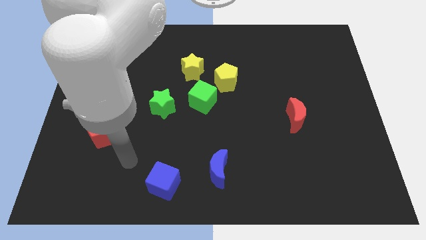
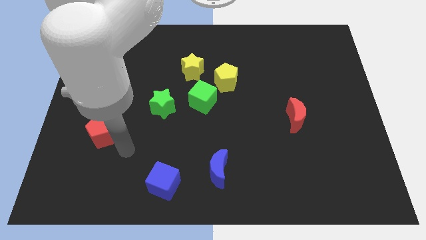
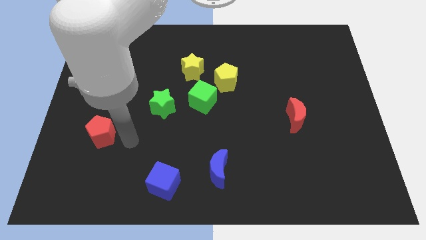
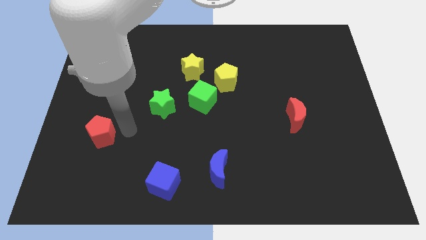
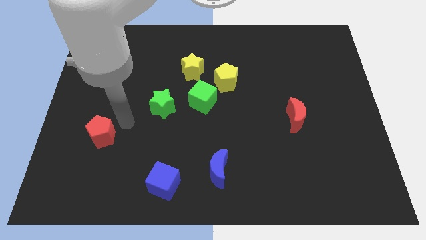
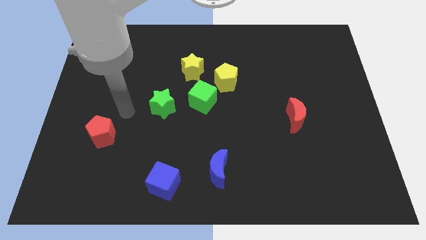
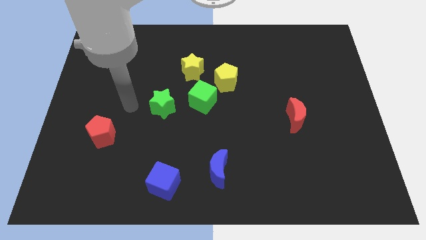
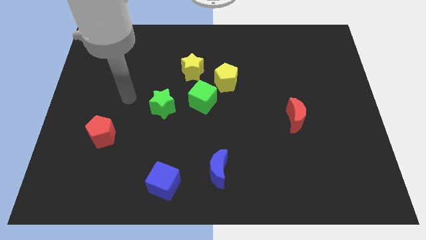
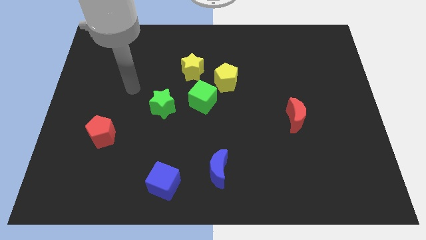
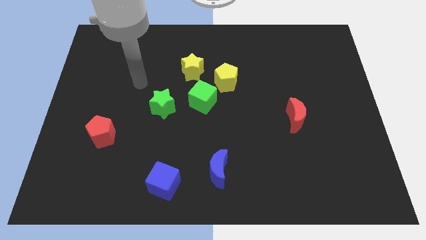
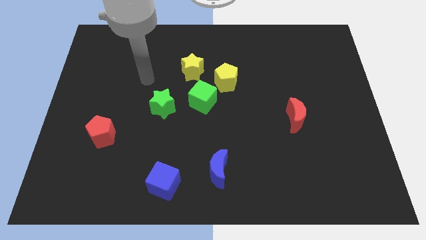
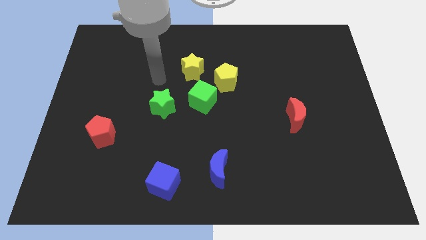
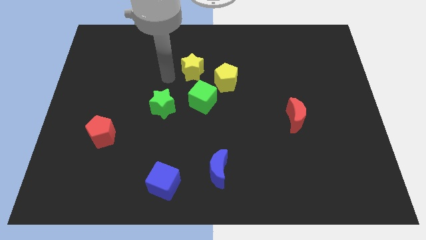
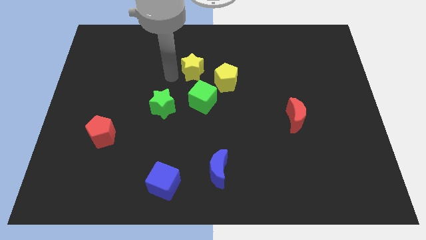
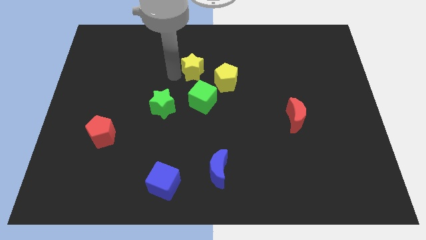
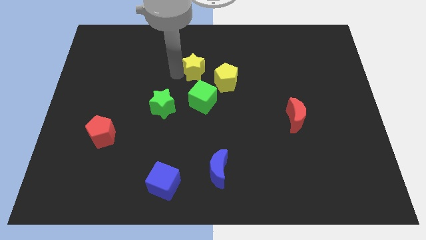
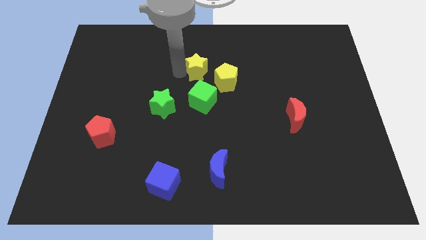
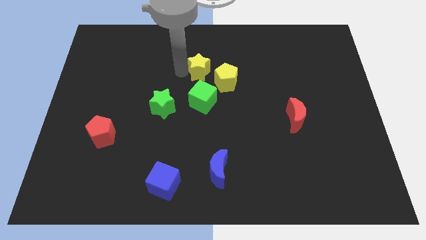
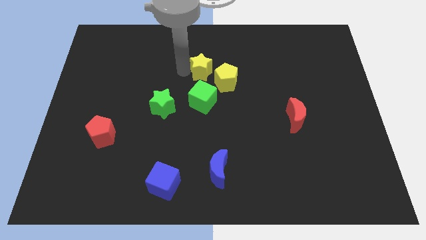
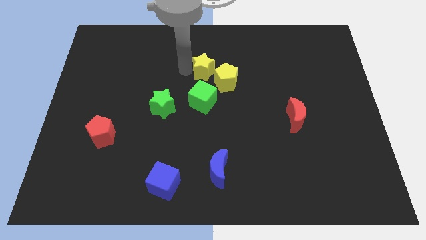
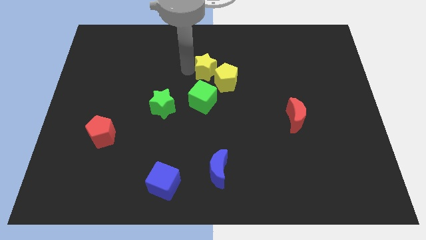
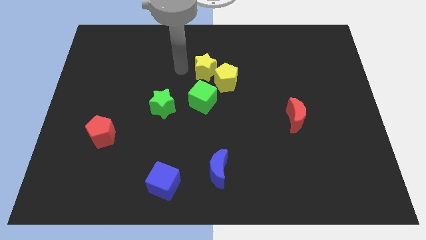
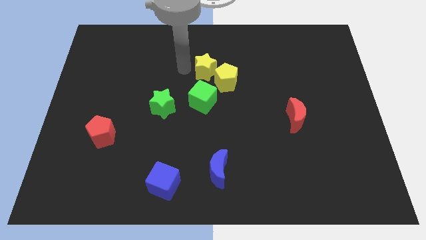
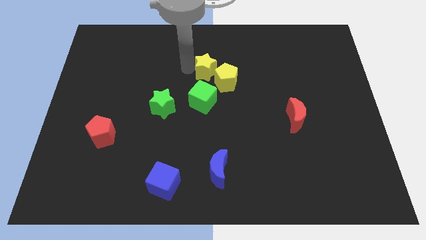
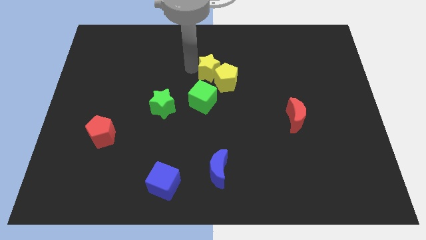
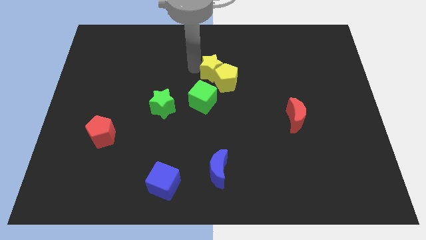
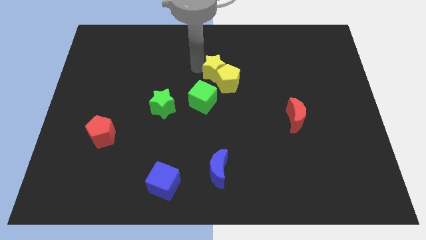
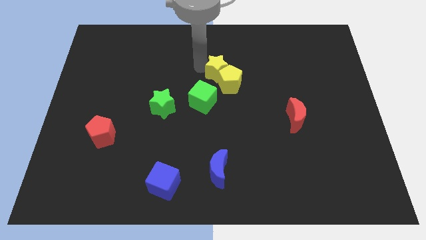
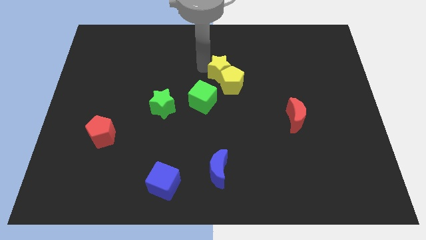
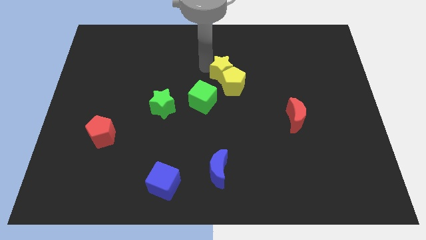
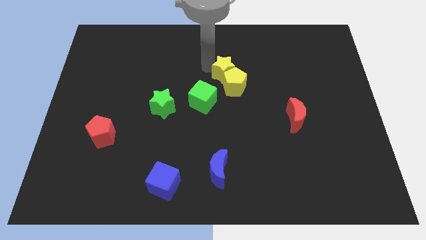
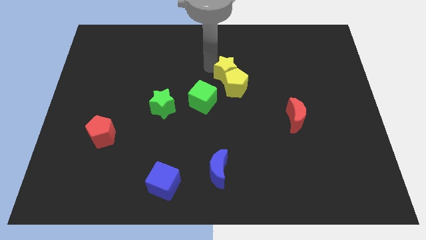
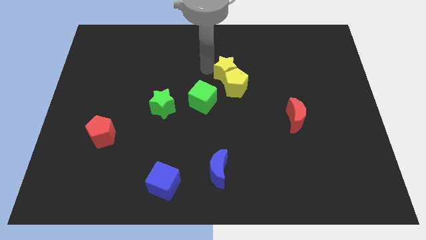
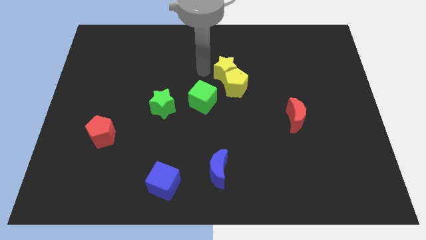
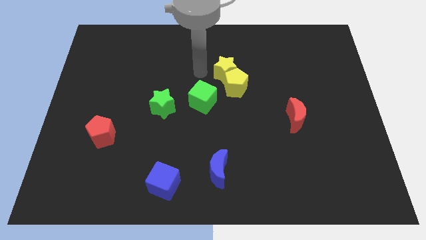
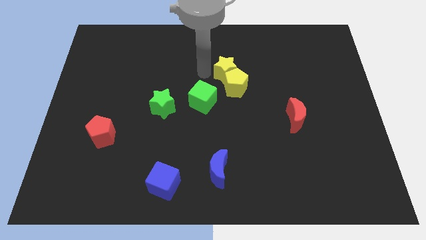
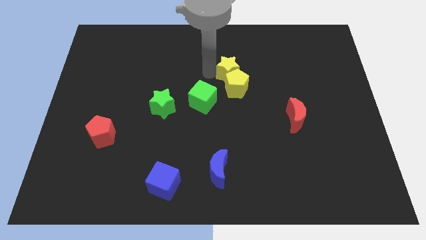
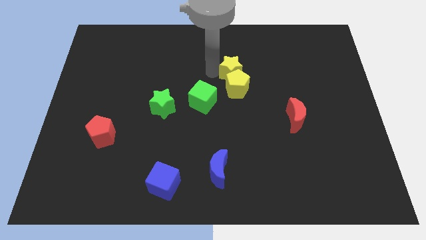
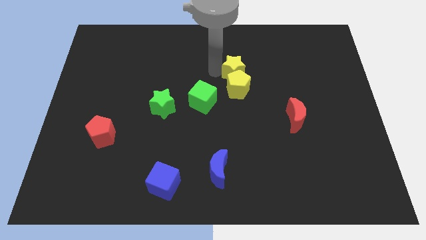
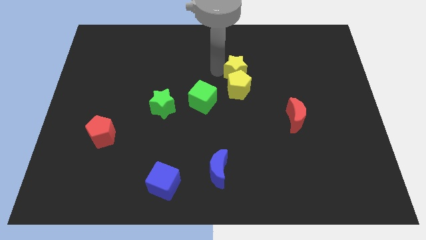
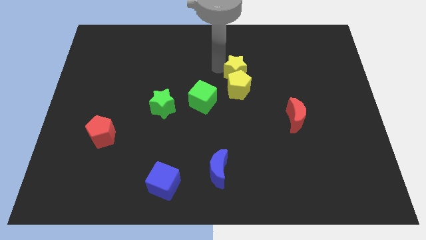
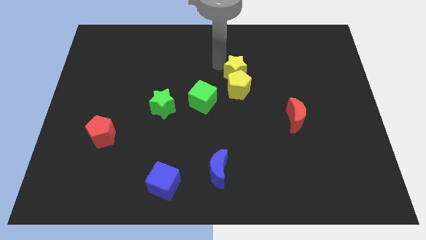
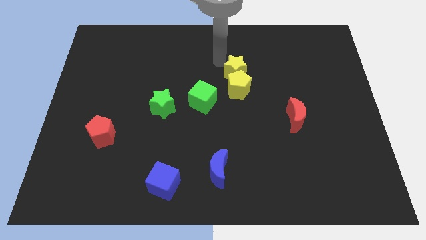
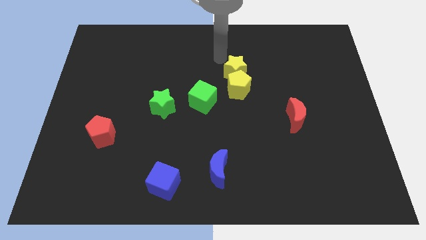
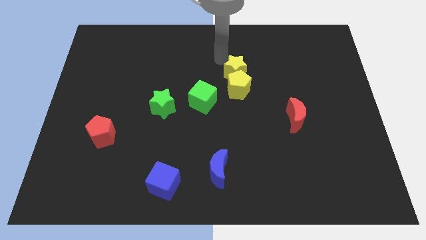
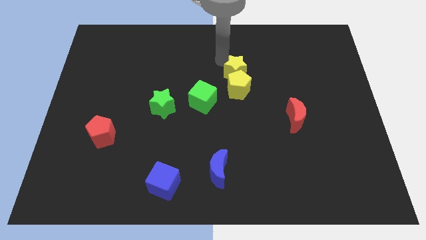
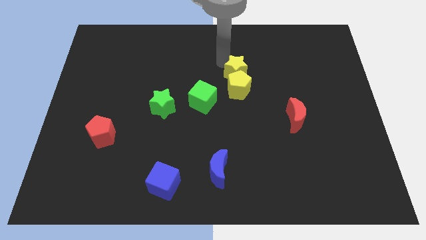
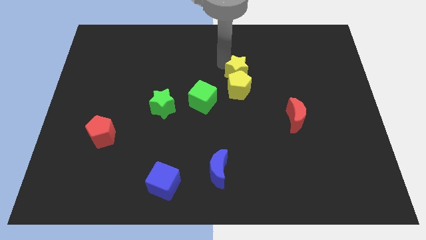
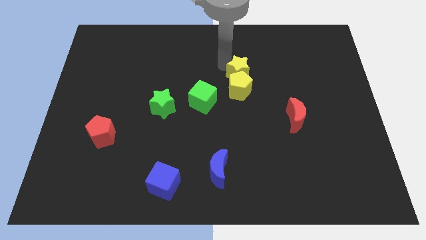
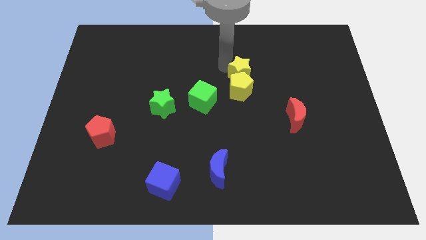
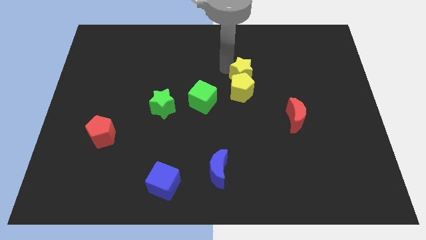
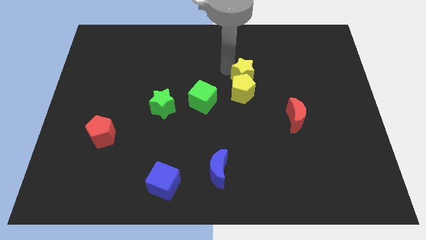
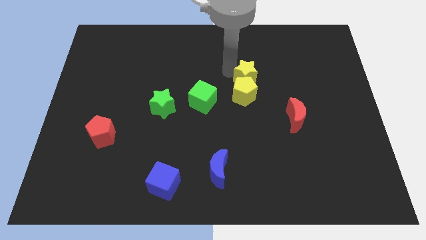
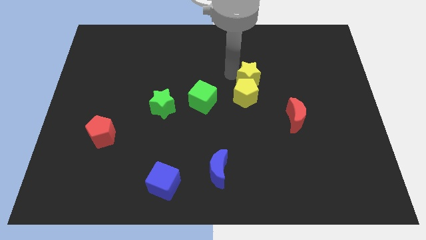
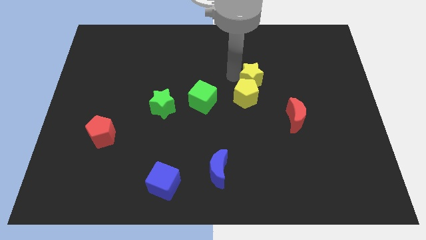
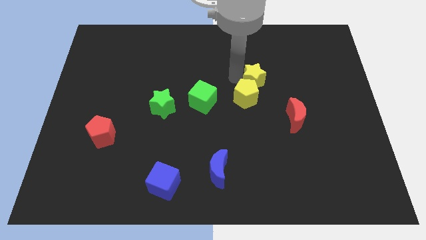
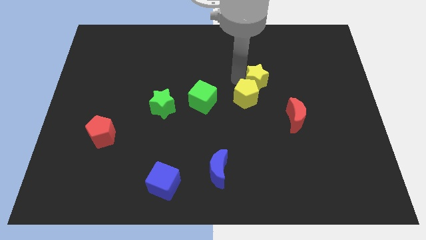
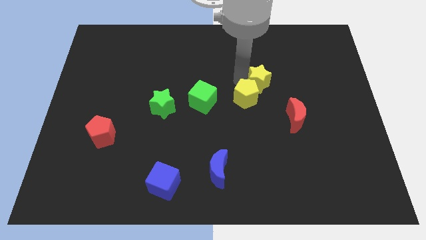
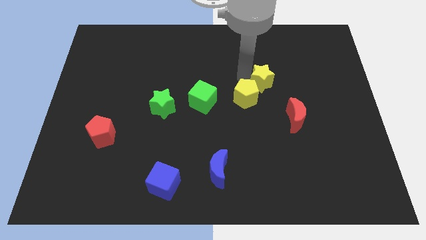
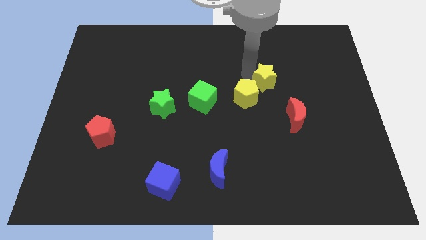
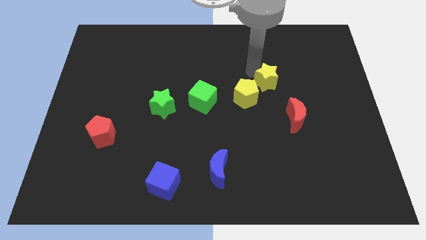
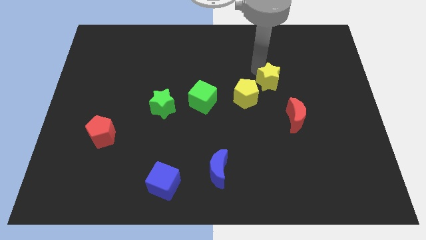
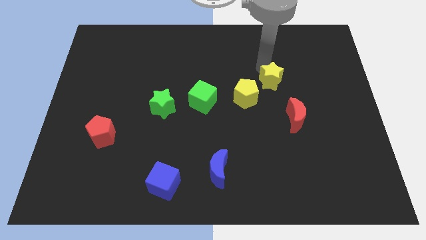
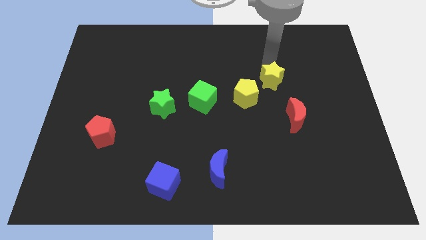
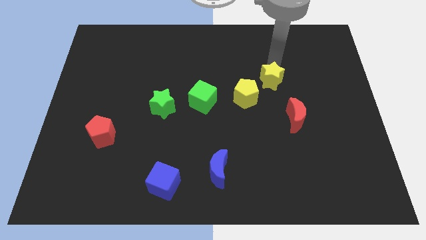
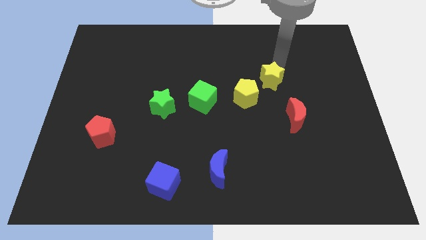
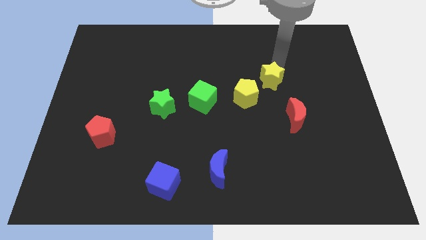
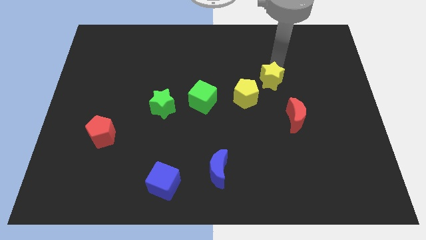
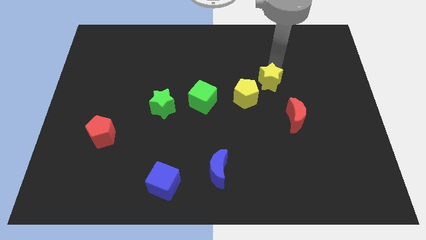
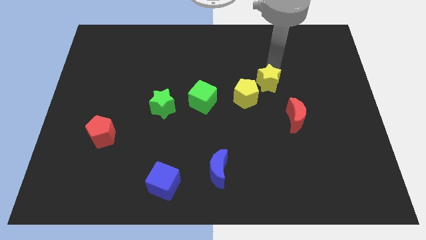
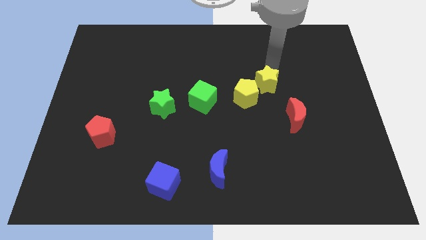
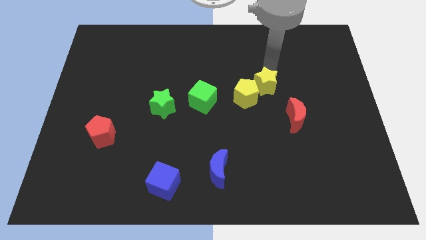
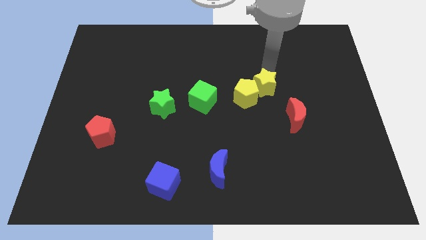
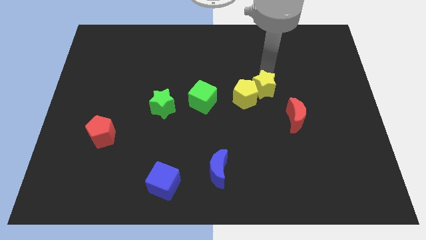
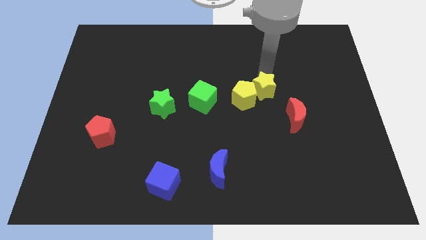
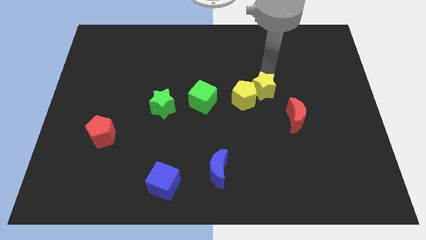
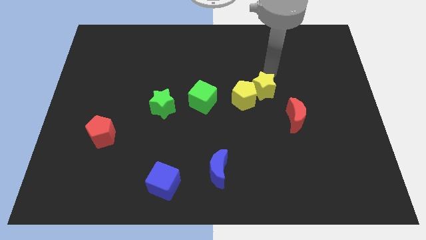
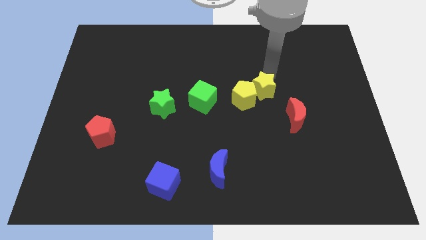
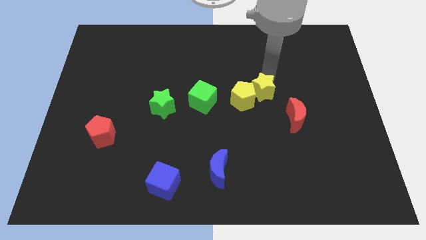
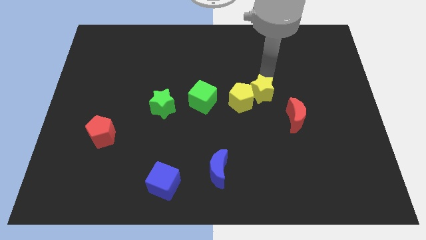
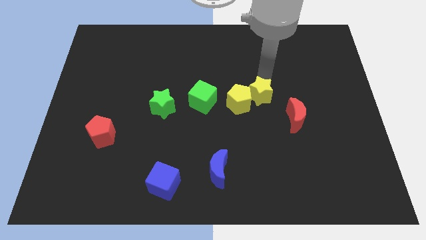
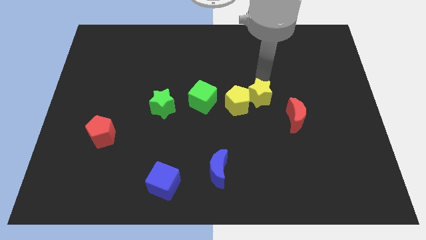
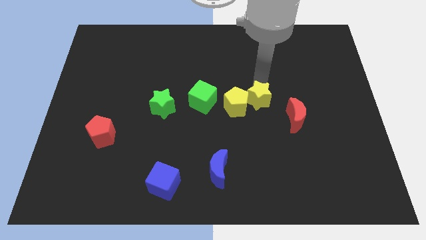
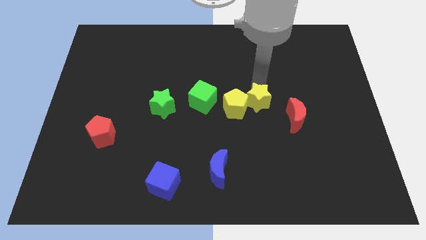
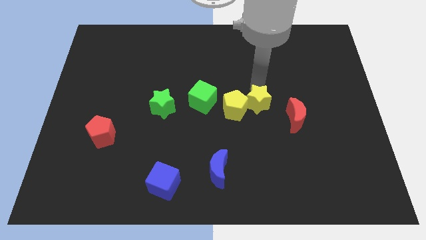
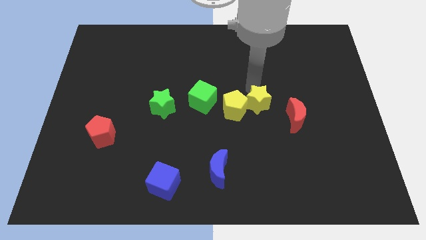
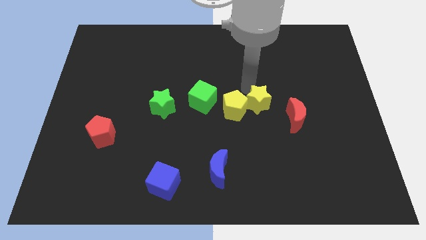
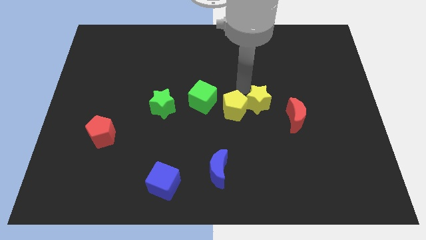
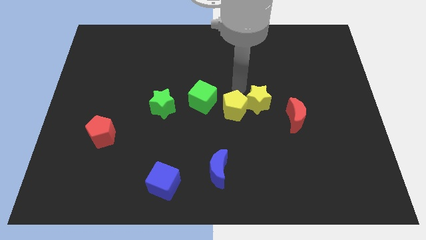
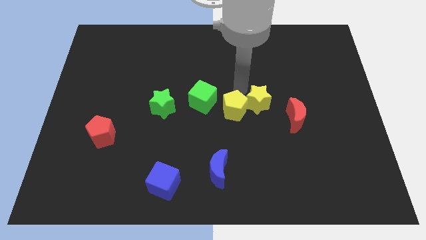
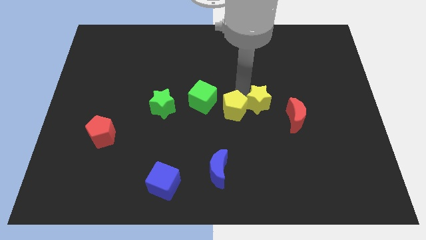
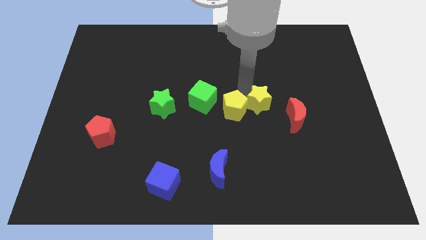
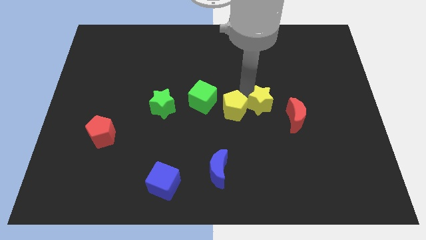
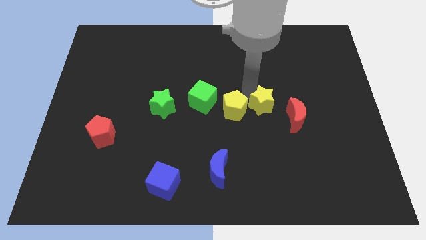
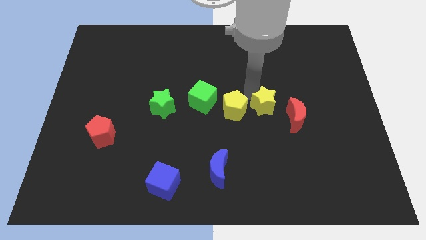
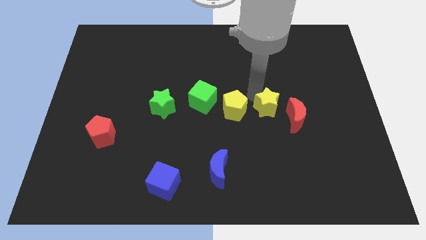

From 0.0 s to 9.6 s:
move the yellow star down and right diagonally
